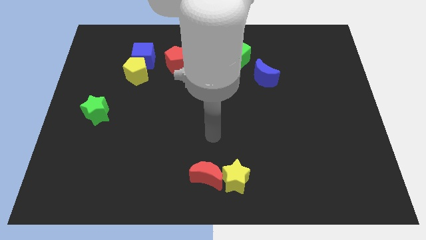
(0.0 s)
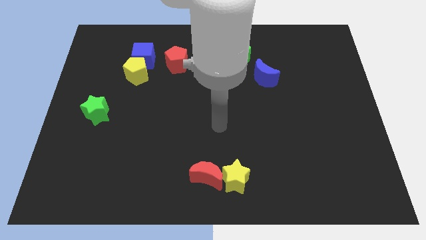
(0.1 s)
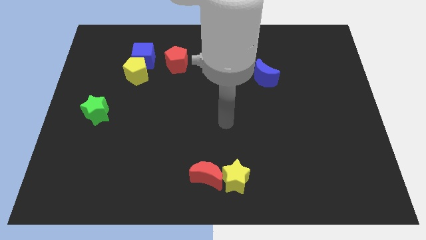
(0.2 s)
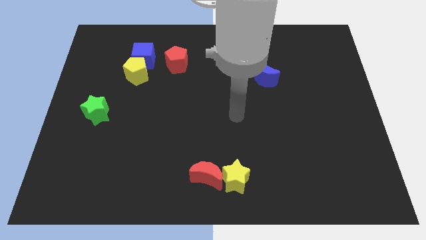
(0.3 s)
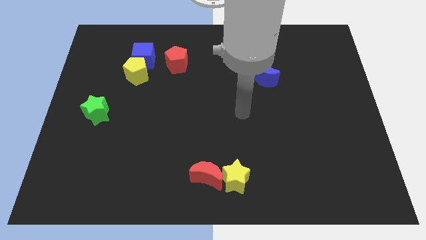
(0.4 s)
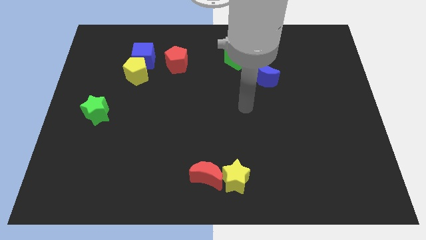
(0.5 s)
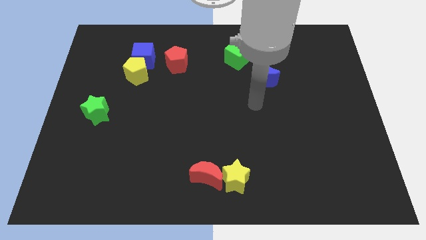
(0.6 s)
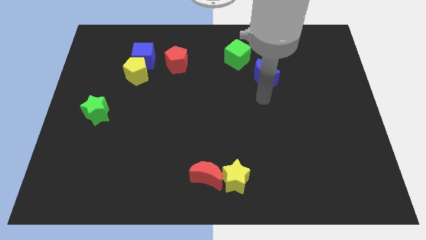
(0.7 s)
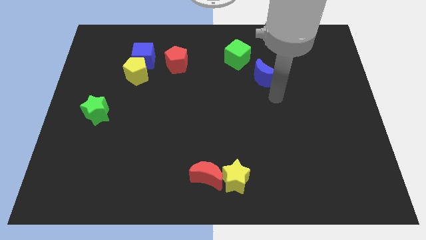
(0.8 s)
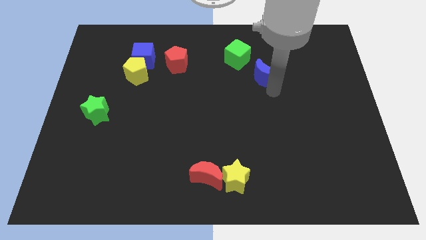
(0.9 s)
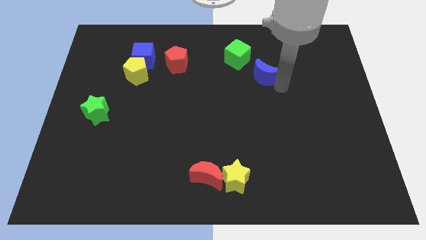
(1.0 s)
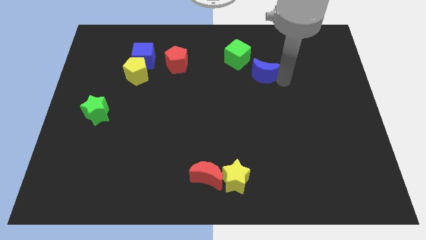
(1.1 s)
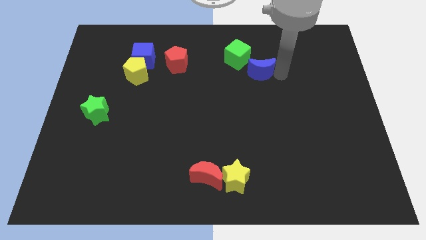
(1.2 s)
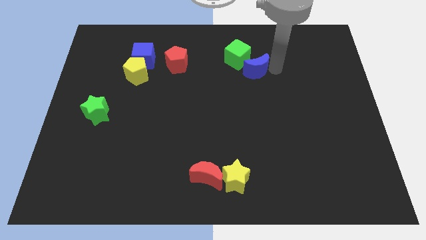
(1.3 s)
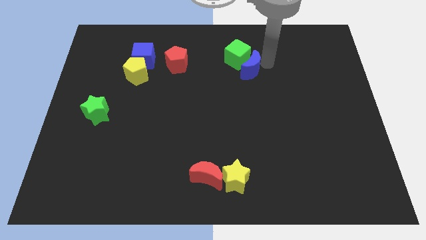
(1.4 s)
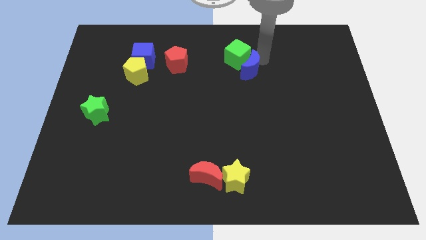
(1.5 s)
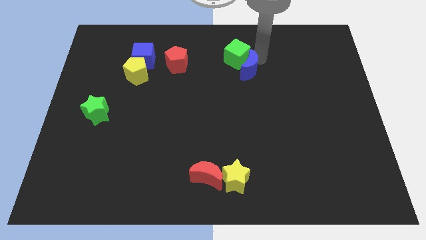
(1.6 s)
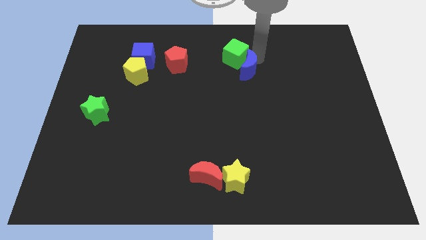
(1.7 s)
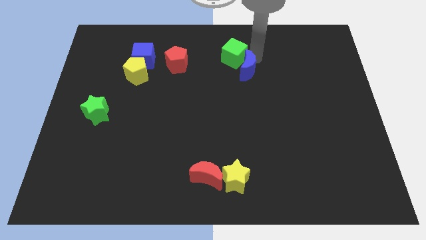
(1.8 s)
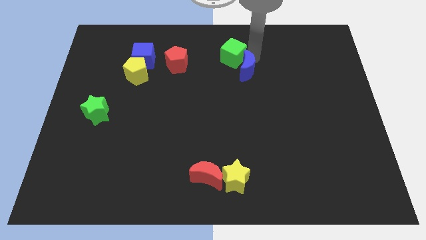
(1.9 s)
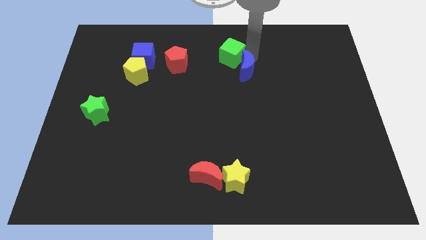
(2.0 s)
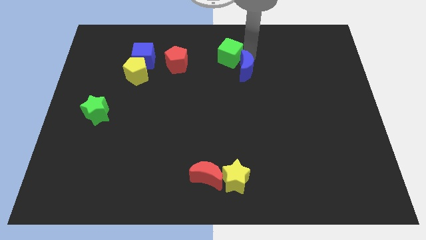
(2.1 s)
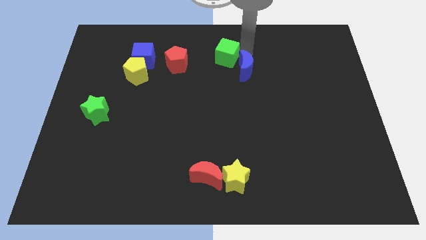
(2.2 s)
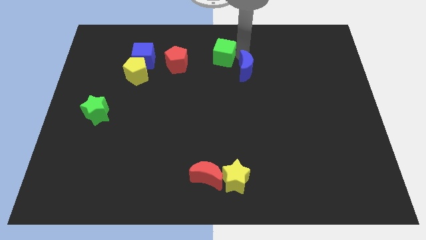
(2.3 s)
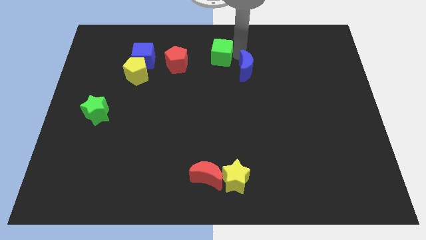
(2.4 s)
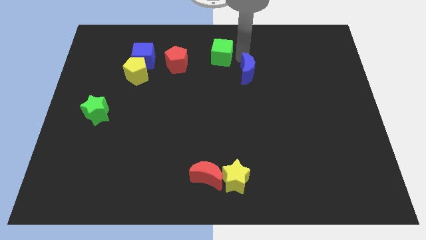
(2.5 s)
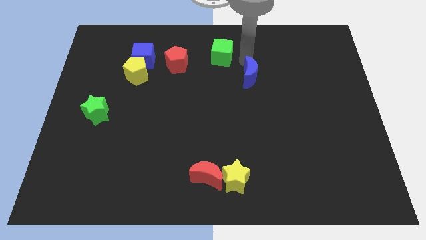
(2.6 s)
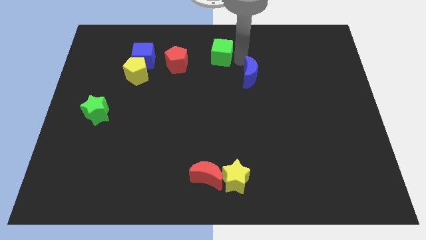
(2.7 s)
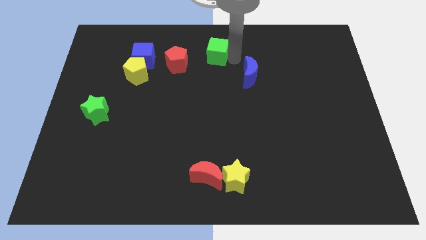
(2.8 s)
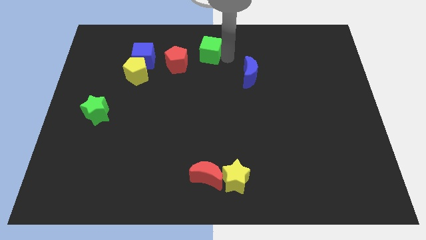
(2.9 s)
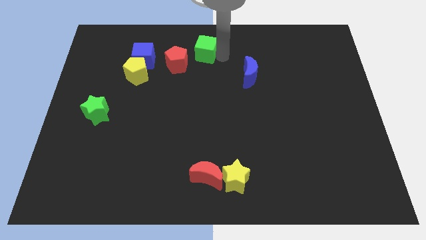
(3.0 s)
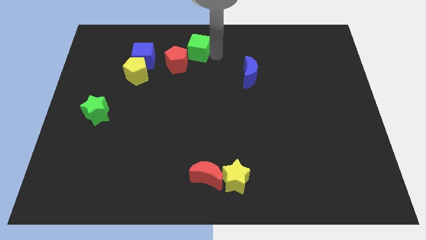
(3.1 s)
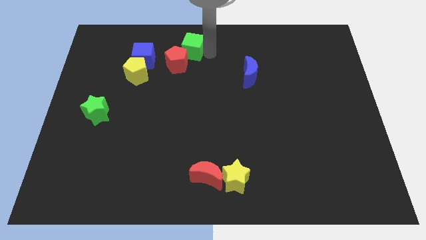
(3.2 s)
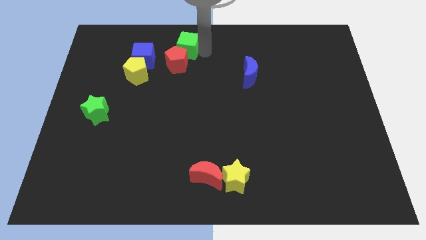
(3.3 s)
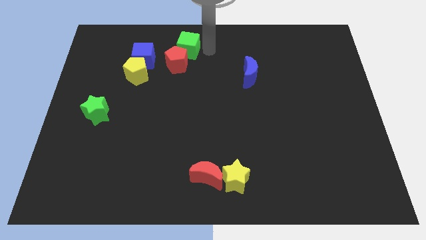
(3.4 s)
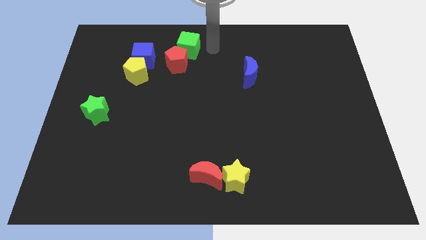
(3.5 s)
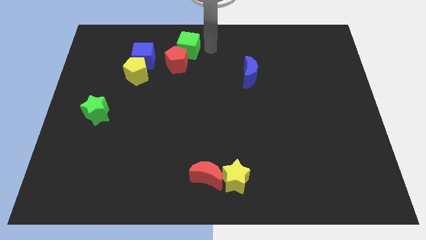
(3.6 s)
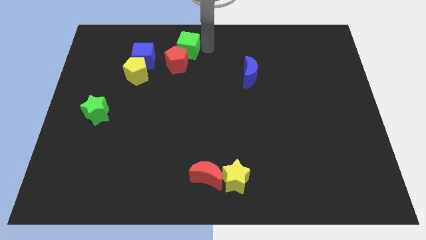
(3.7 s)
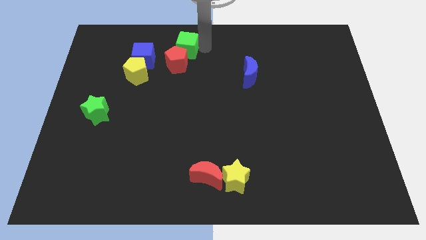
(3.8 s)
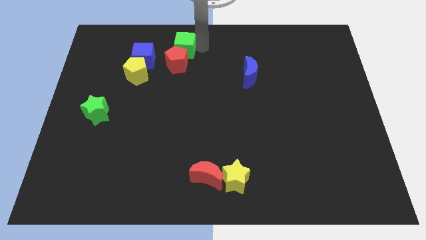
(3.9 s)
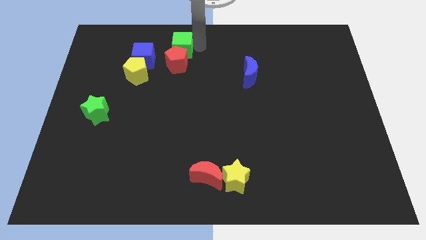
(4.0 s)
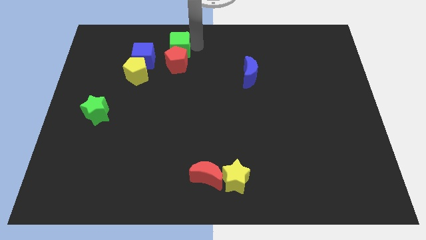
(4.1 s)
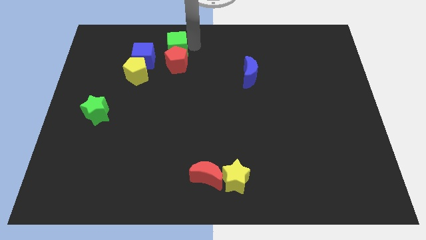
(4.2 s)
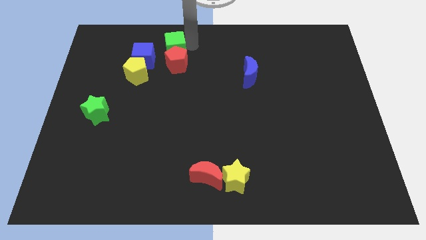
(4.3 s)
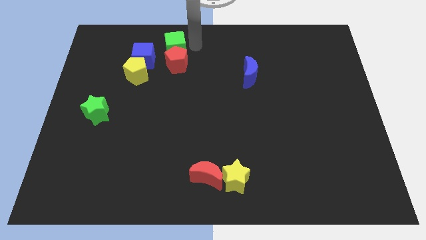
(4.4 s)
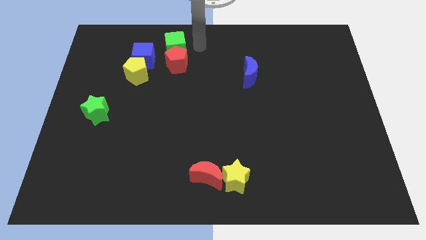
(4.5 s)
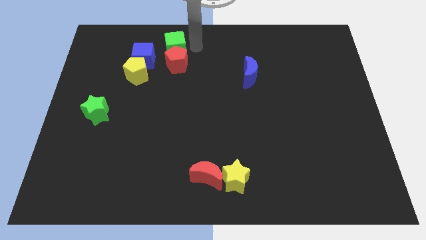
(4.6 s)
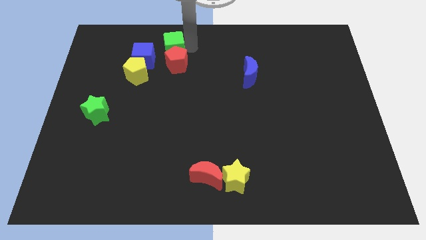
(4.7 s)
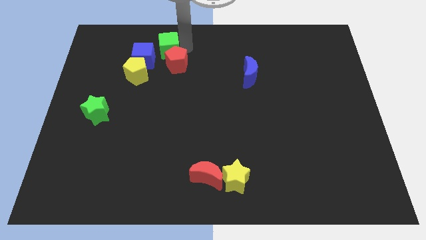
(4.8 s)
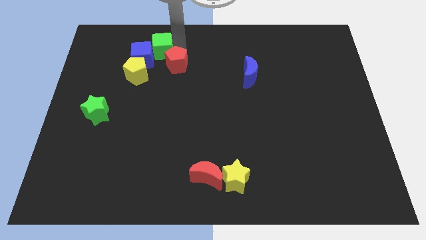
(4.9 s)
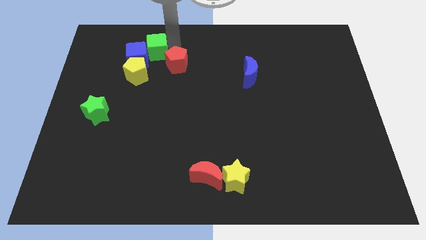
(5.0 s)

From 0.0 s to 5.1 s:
push the green cube to the left

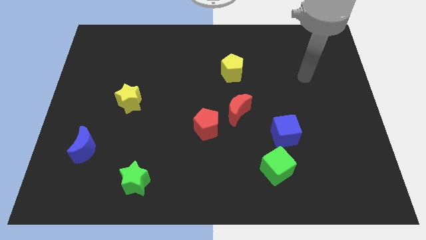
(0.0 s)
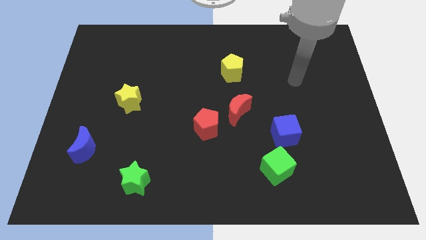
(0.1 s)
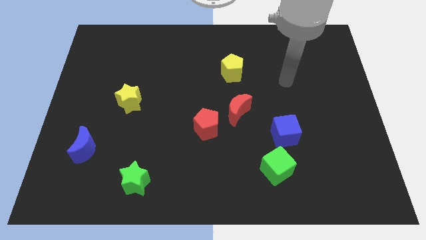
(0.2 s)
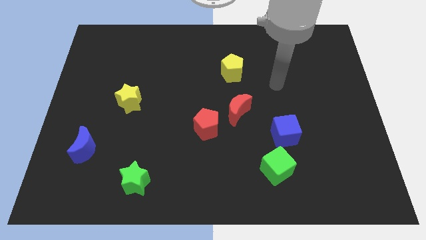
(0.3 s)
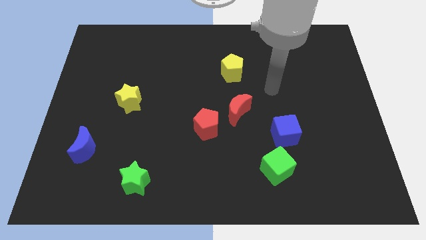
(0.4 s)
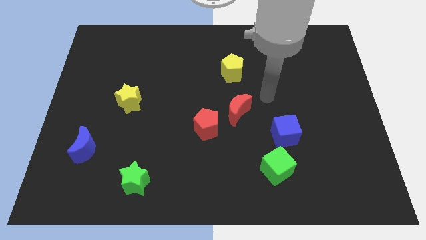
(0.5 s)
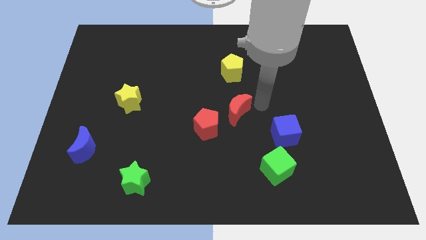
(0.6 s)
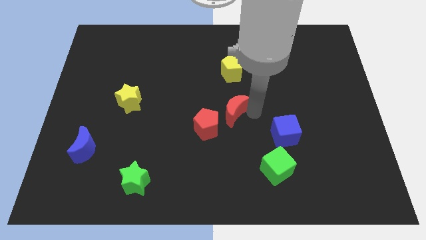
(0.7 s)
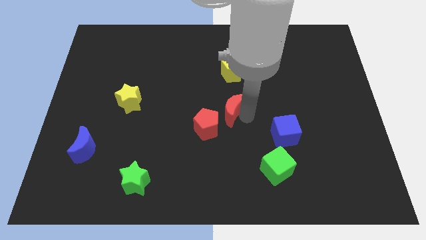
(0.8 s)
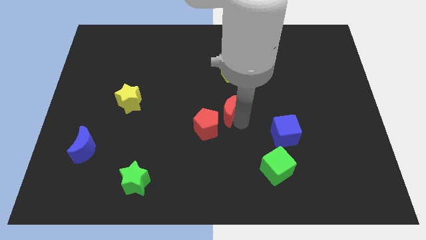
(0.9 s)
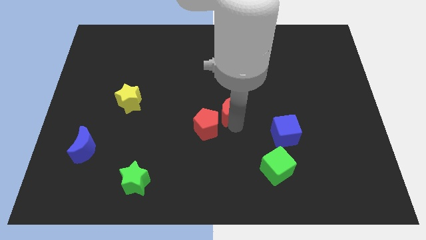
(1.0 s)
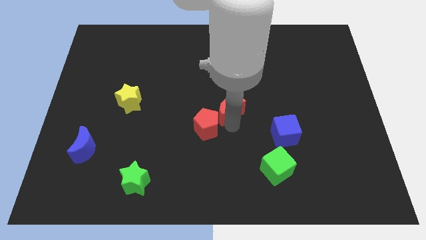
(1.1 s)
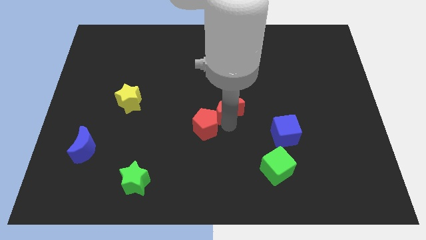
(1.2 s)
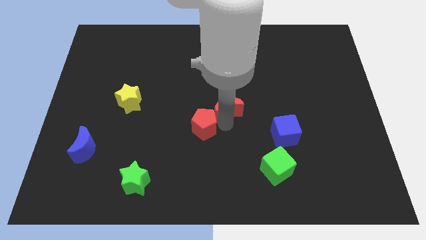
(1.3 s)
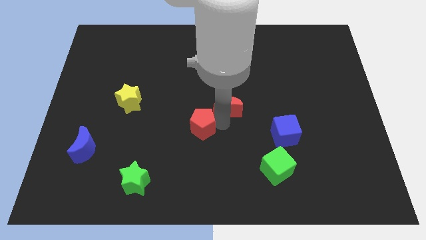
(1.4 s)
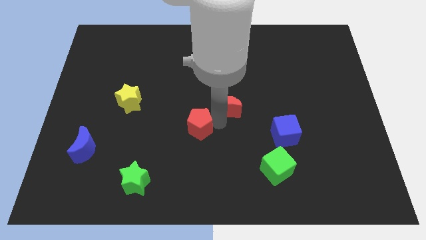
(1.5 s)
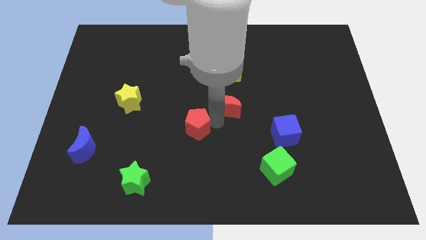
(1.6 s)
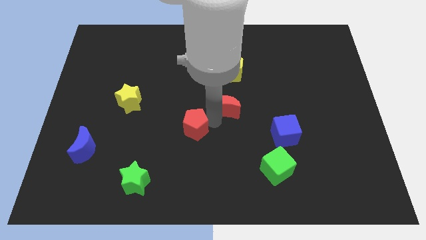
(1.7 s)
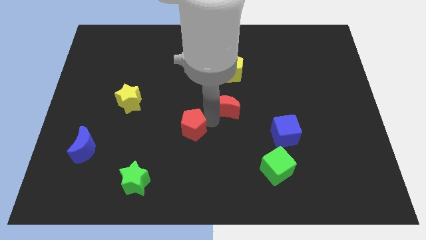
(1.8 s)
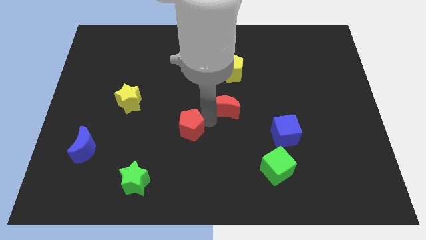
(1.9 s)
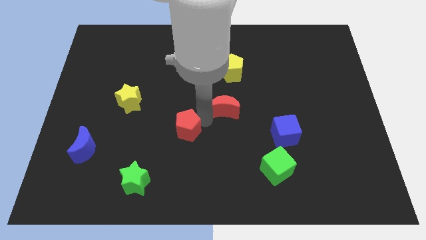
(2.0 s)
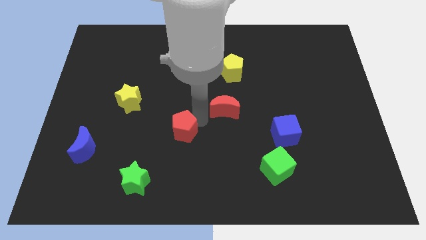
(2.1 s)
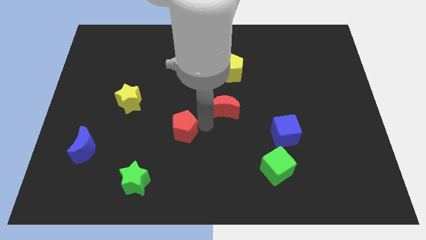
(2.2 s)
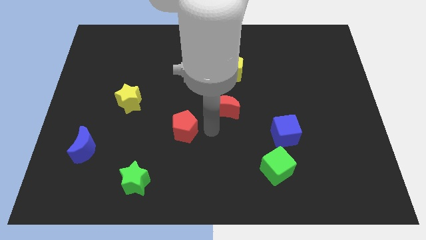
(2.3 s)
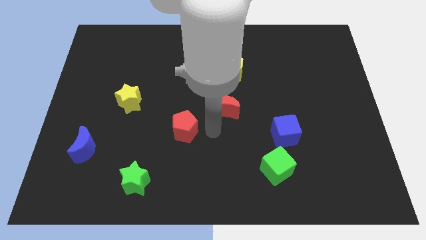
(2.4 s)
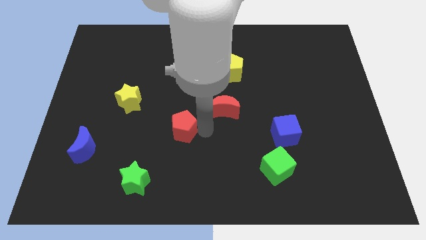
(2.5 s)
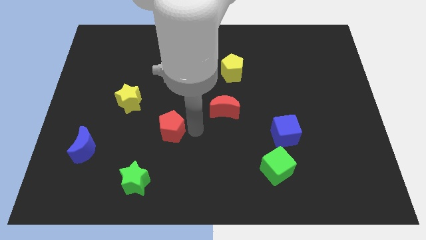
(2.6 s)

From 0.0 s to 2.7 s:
slightly push the red pentagon to the left

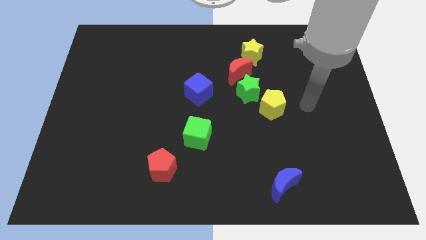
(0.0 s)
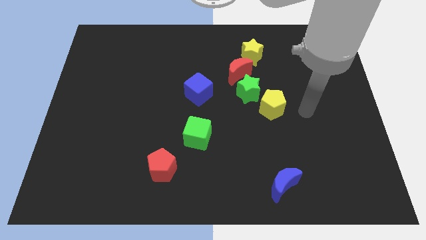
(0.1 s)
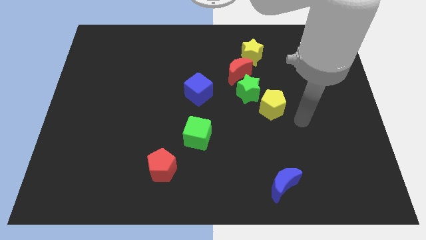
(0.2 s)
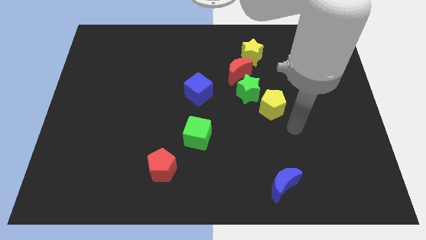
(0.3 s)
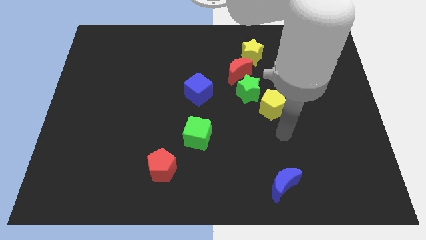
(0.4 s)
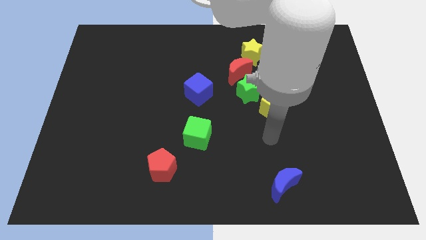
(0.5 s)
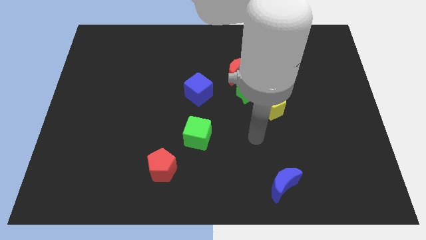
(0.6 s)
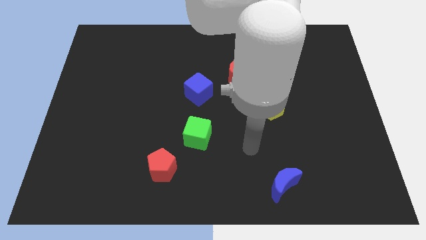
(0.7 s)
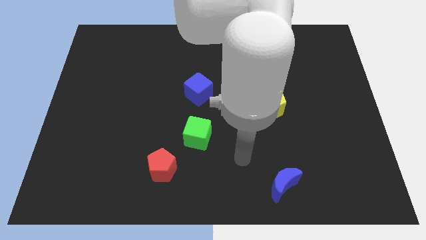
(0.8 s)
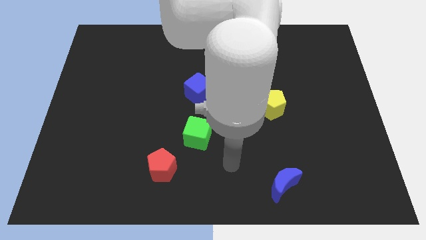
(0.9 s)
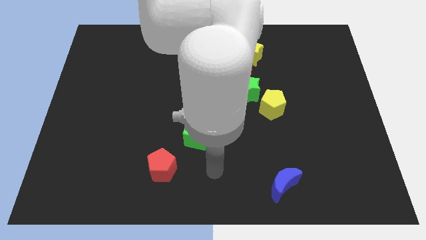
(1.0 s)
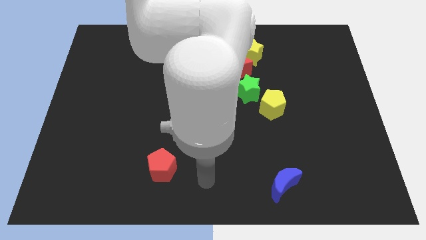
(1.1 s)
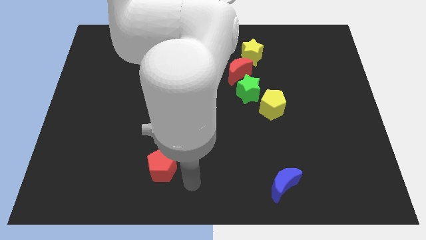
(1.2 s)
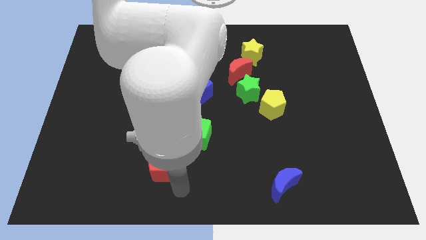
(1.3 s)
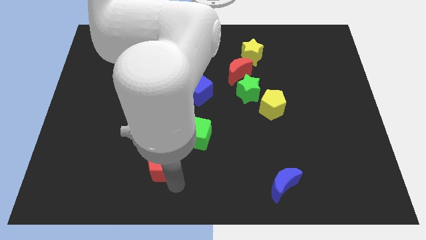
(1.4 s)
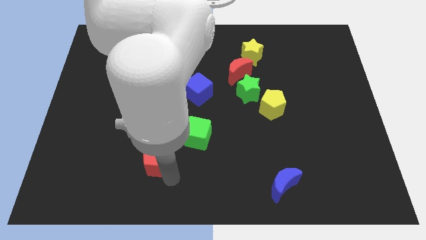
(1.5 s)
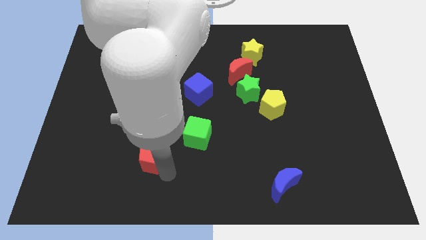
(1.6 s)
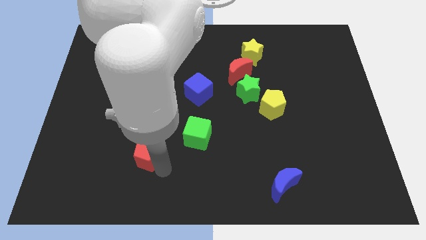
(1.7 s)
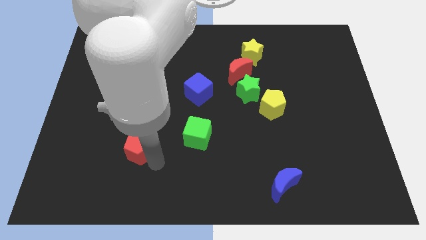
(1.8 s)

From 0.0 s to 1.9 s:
slightly move the red pentagon up and then left
